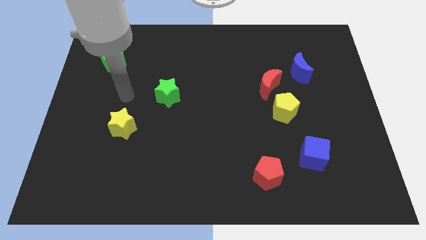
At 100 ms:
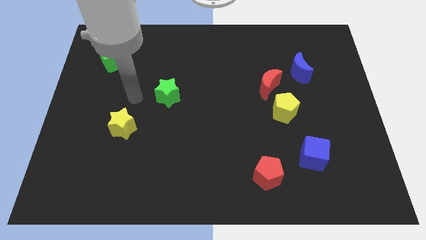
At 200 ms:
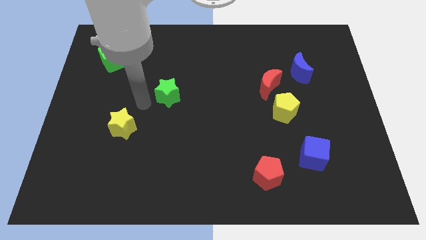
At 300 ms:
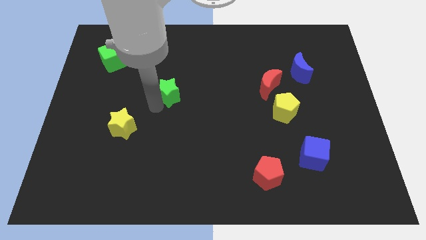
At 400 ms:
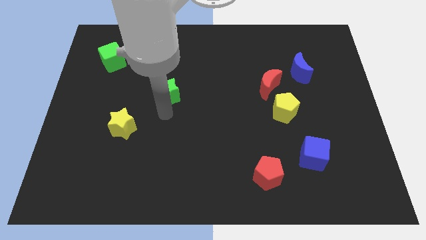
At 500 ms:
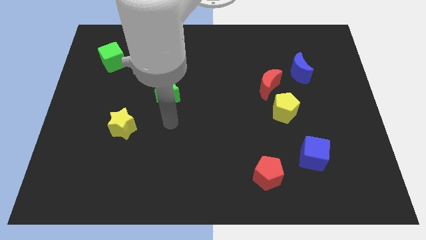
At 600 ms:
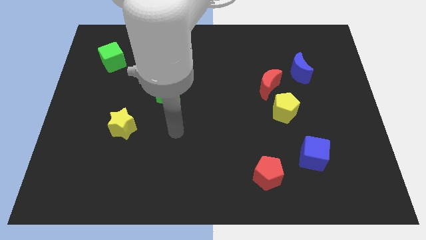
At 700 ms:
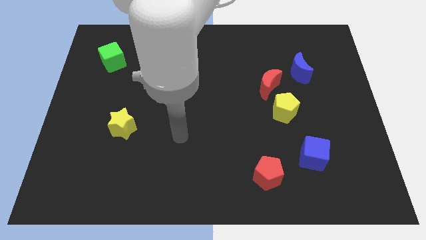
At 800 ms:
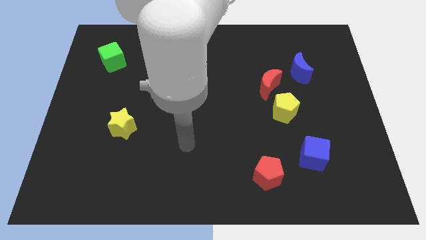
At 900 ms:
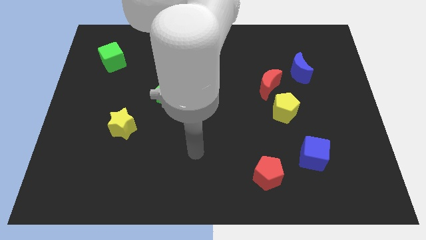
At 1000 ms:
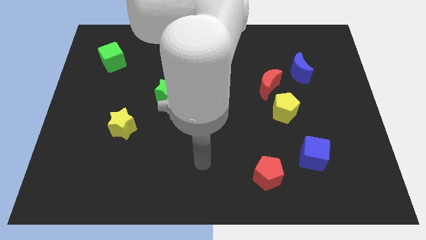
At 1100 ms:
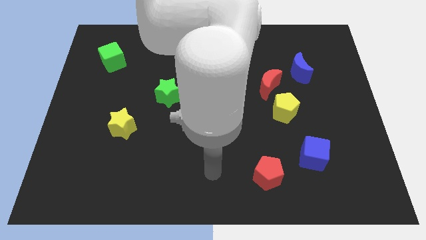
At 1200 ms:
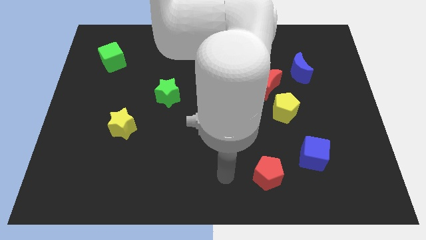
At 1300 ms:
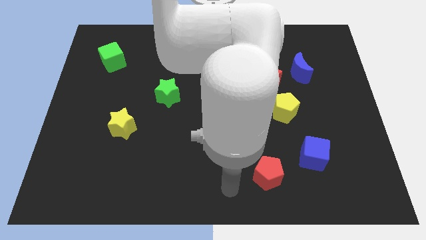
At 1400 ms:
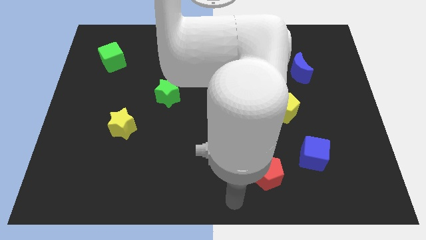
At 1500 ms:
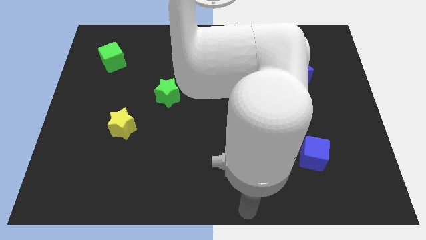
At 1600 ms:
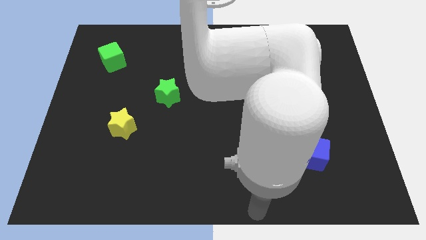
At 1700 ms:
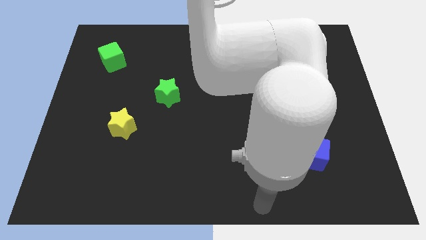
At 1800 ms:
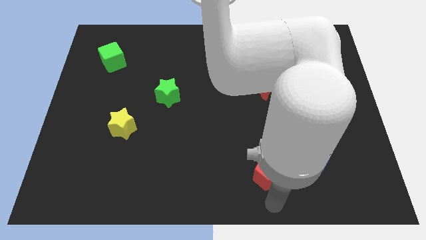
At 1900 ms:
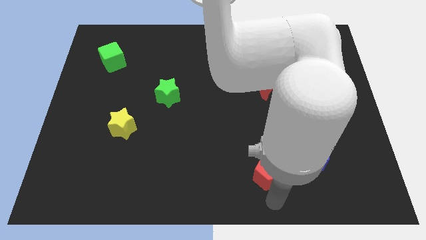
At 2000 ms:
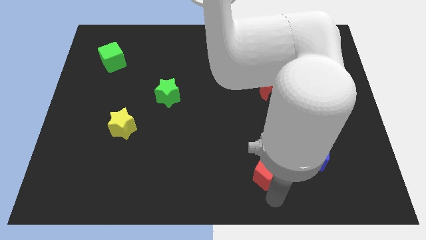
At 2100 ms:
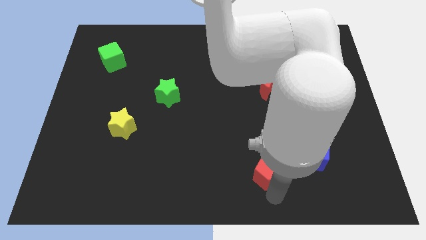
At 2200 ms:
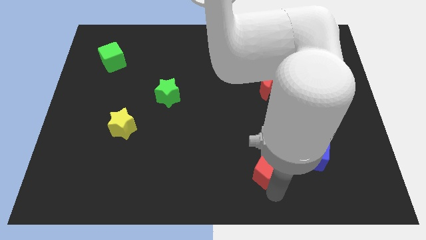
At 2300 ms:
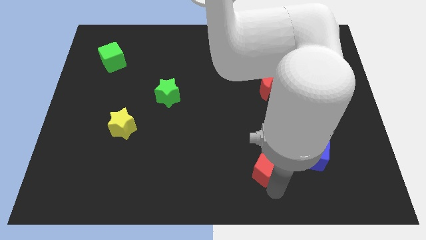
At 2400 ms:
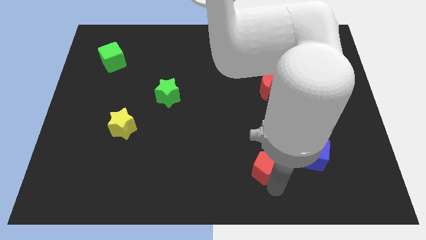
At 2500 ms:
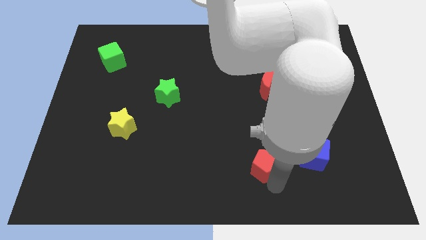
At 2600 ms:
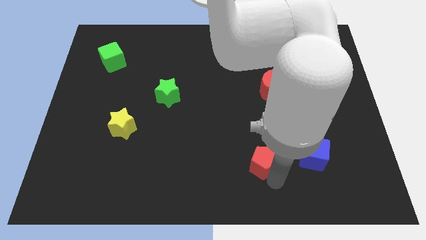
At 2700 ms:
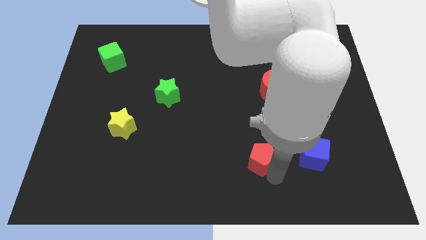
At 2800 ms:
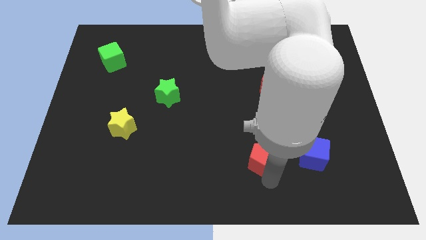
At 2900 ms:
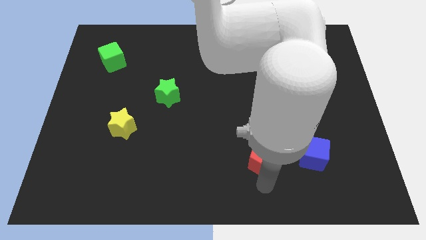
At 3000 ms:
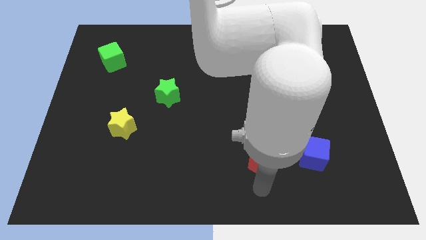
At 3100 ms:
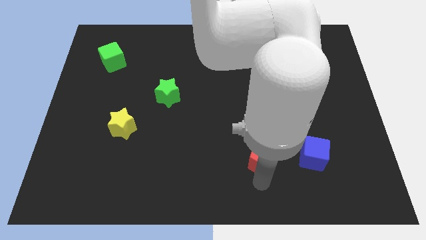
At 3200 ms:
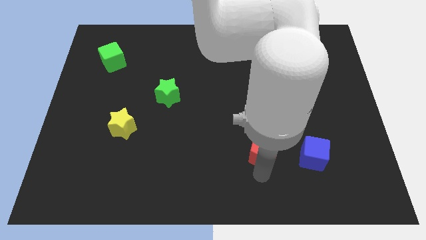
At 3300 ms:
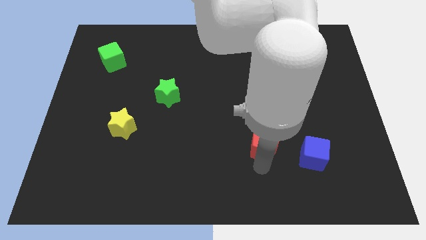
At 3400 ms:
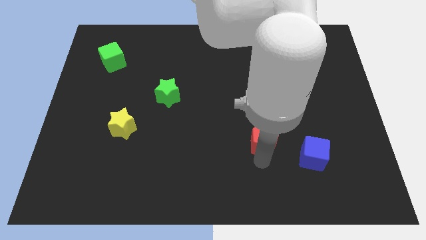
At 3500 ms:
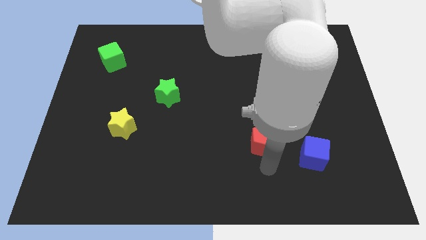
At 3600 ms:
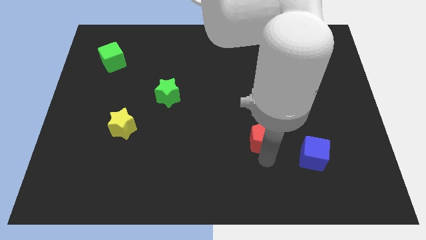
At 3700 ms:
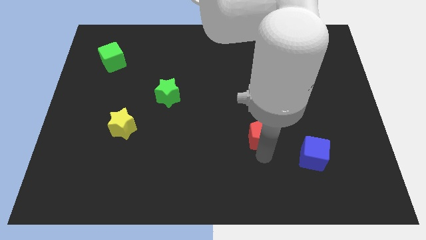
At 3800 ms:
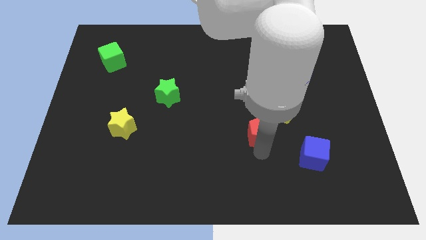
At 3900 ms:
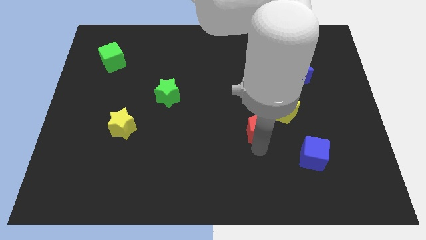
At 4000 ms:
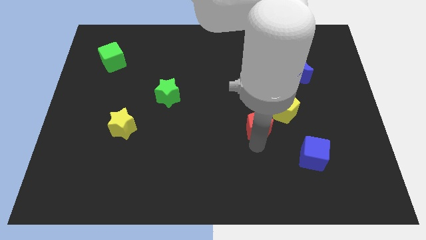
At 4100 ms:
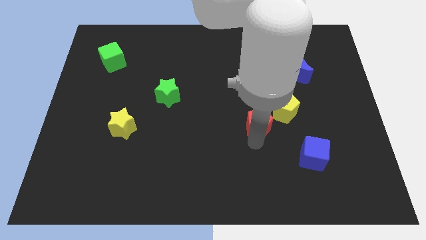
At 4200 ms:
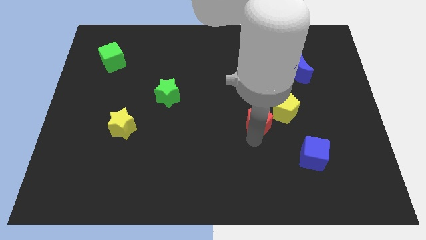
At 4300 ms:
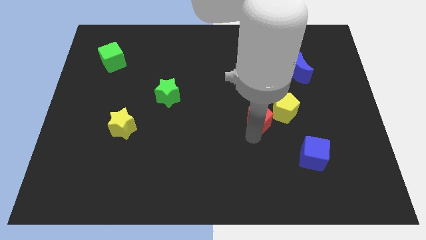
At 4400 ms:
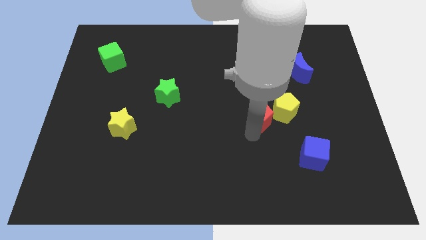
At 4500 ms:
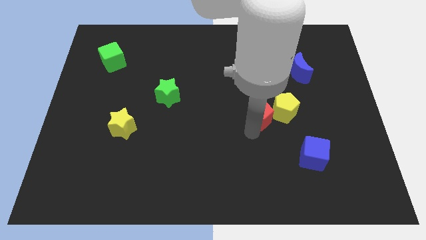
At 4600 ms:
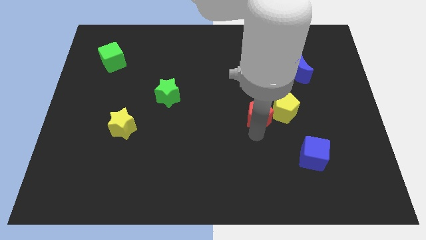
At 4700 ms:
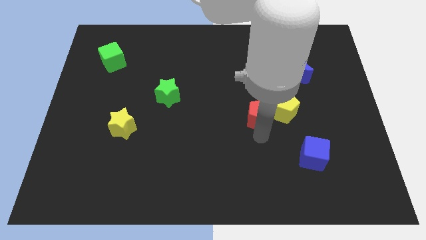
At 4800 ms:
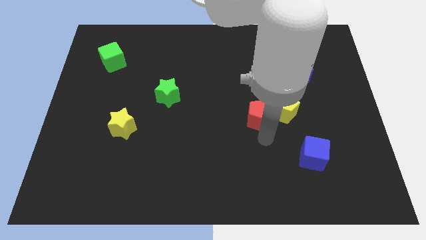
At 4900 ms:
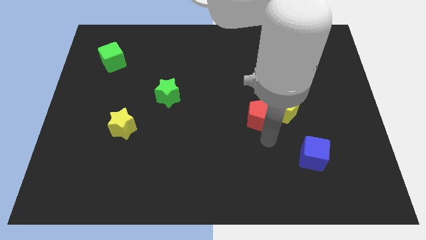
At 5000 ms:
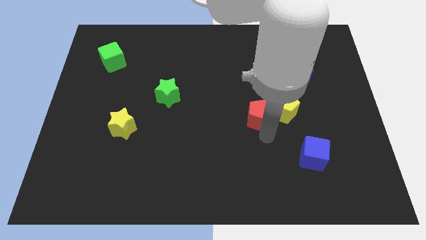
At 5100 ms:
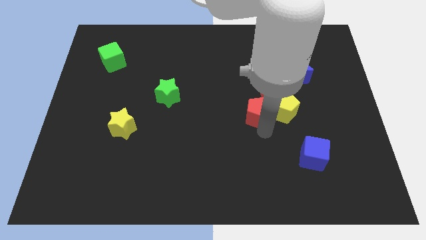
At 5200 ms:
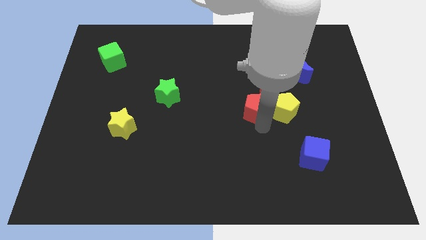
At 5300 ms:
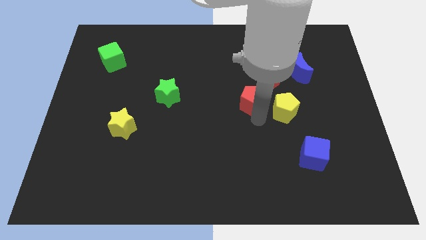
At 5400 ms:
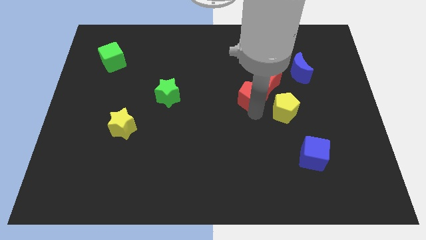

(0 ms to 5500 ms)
move the red pentagon up

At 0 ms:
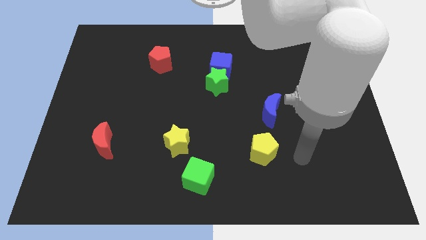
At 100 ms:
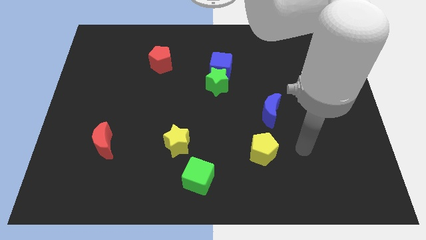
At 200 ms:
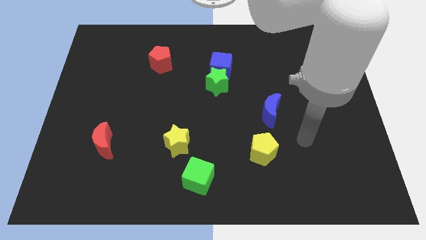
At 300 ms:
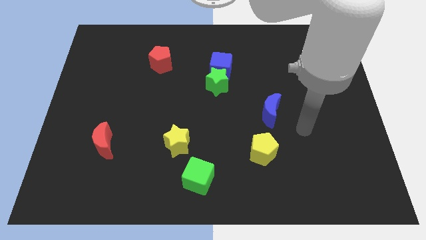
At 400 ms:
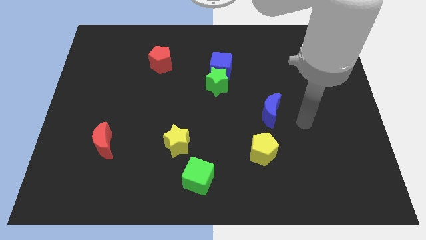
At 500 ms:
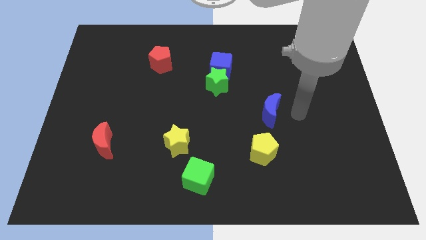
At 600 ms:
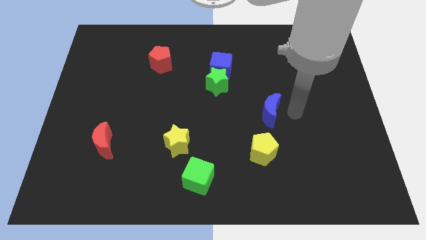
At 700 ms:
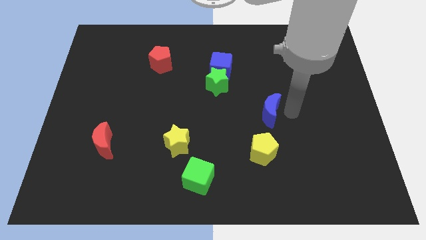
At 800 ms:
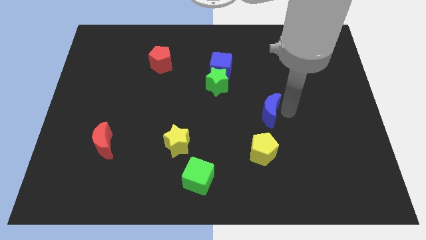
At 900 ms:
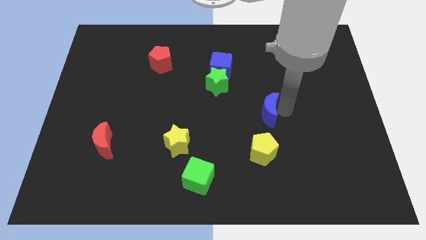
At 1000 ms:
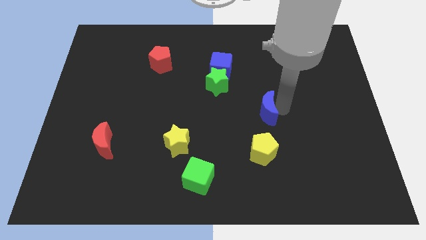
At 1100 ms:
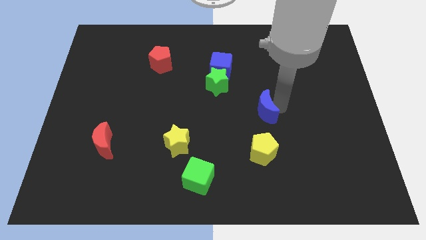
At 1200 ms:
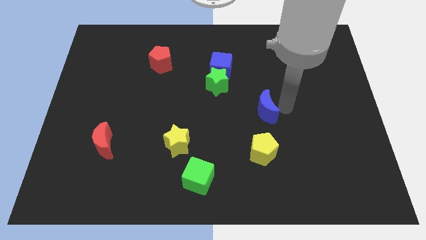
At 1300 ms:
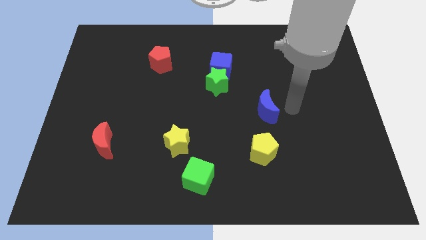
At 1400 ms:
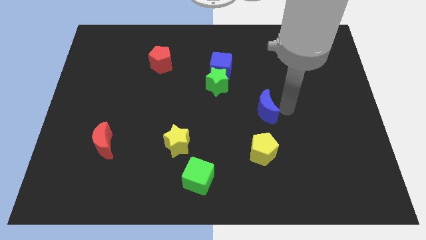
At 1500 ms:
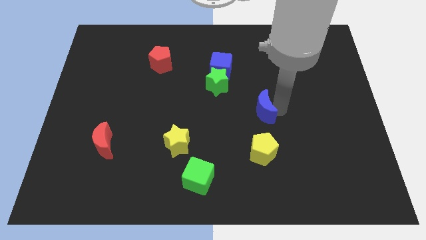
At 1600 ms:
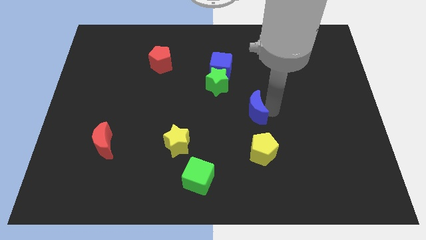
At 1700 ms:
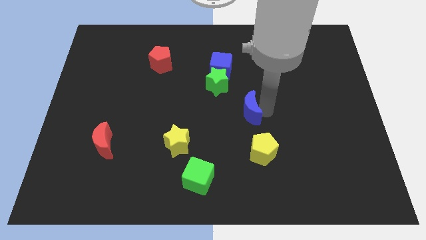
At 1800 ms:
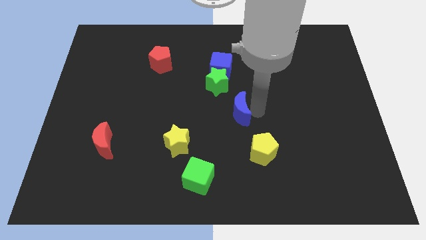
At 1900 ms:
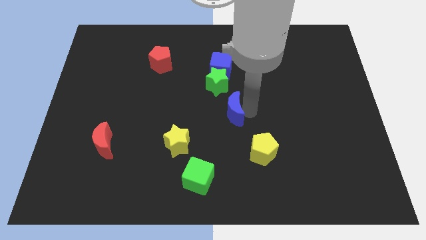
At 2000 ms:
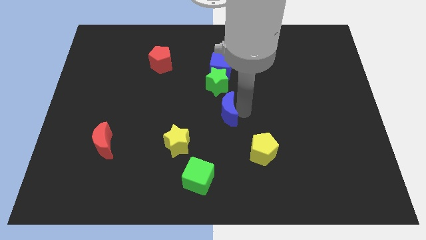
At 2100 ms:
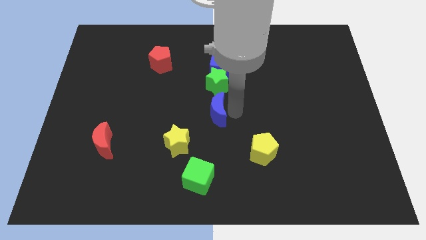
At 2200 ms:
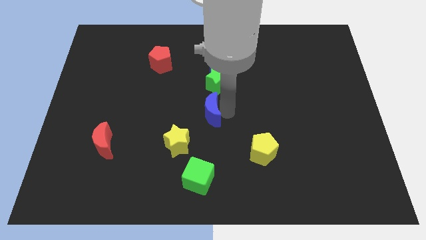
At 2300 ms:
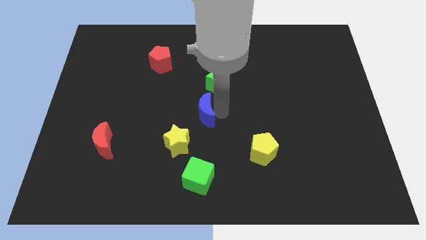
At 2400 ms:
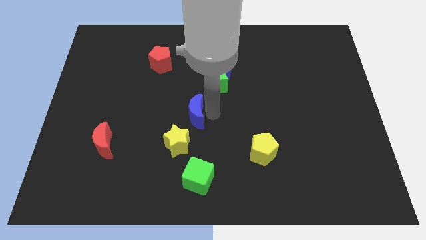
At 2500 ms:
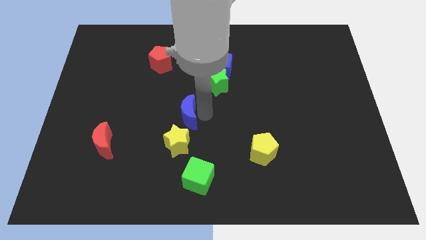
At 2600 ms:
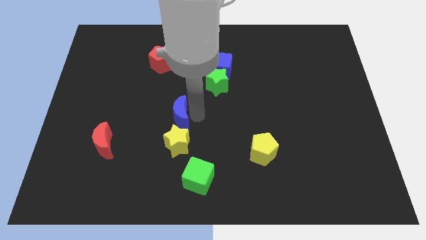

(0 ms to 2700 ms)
move the blue moon to the left
